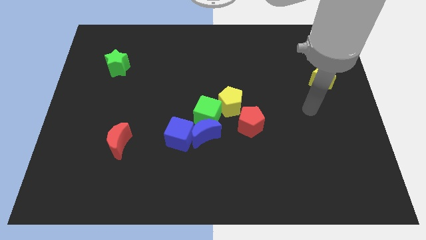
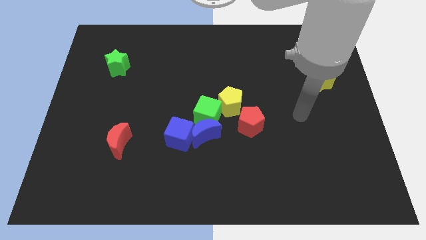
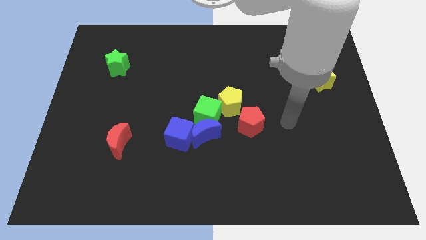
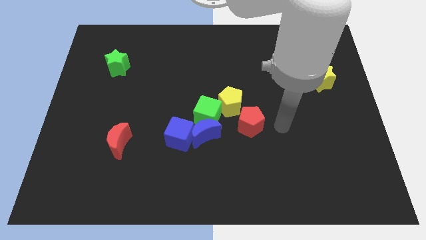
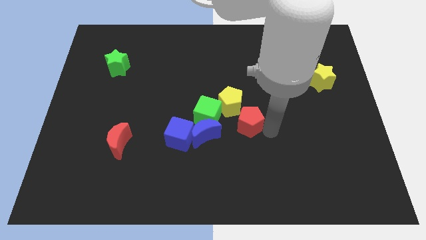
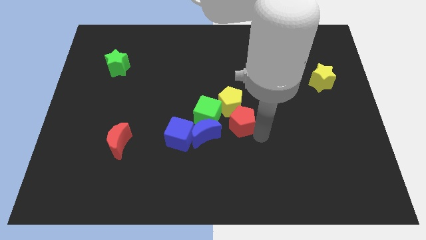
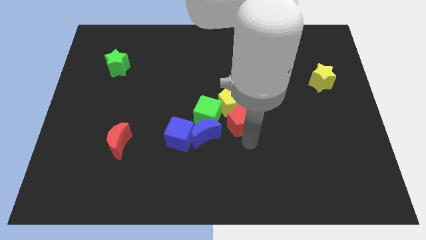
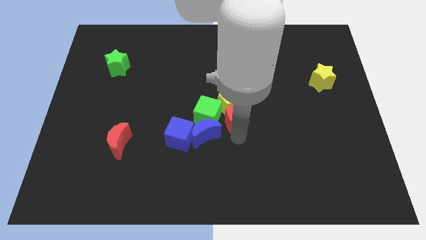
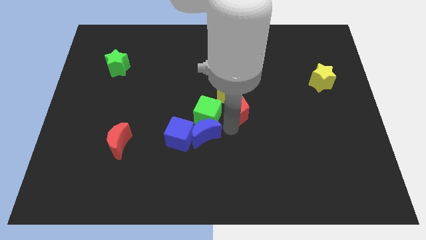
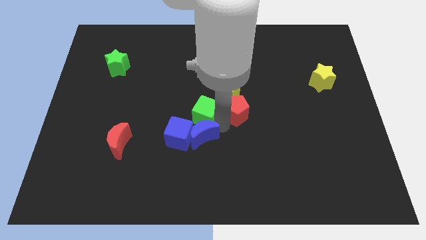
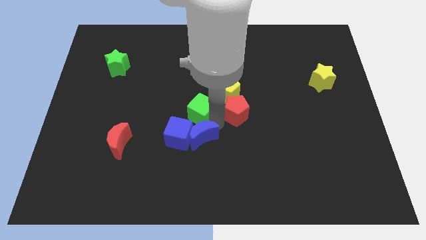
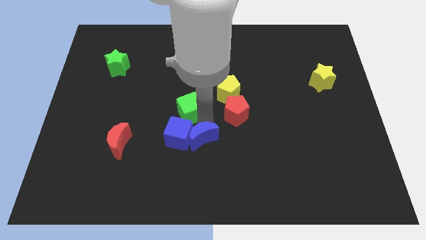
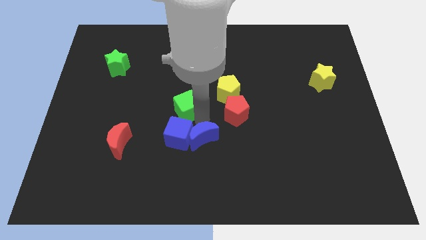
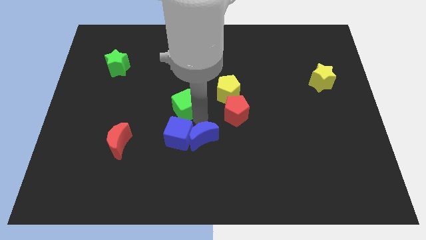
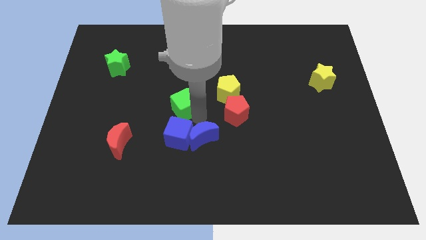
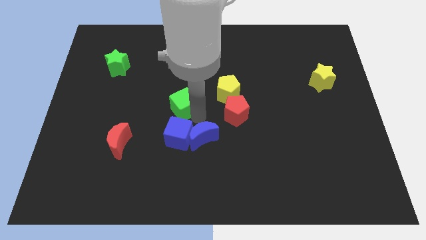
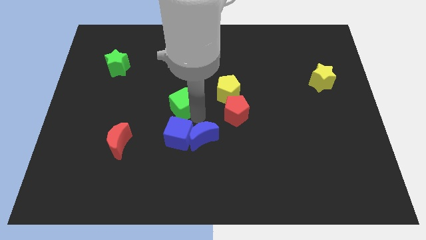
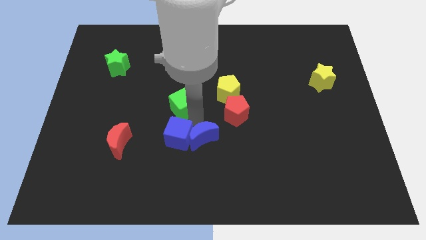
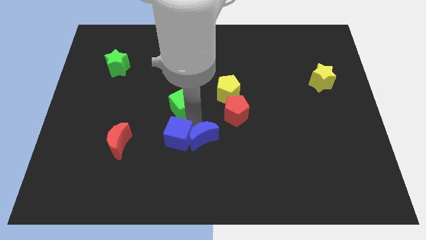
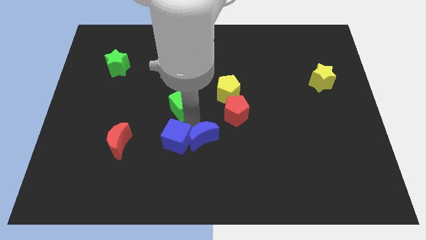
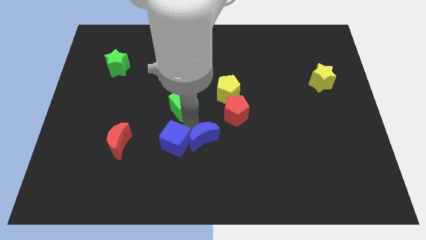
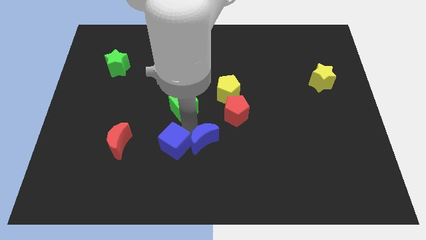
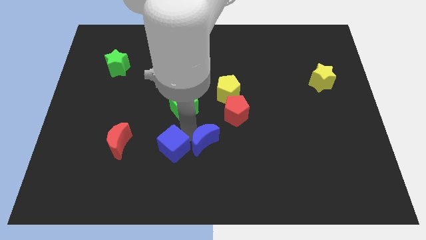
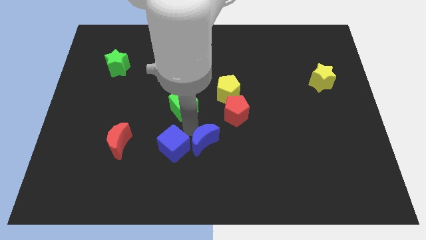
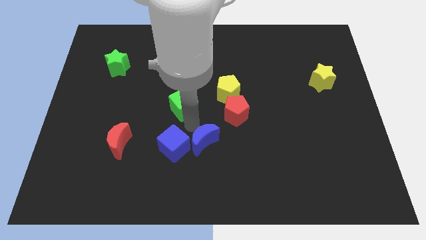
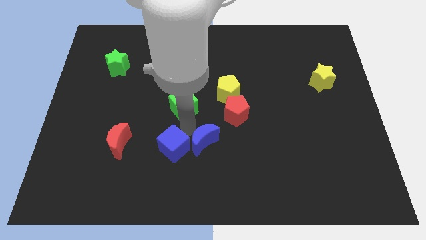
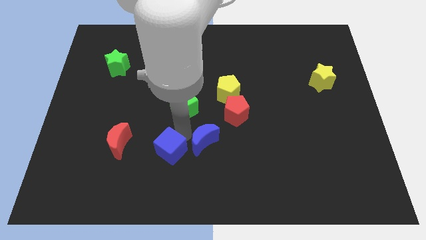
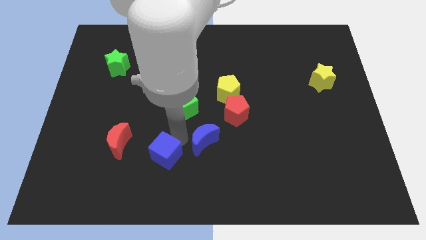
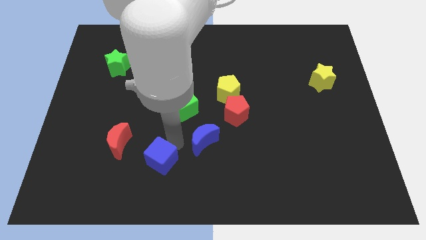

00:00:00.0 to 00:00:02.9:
separate the blue cube from the blue moon and green cube

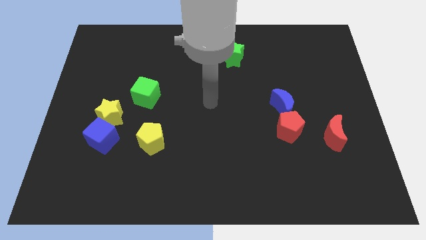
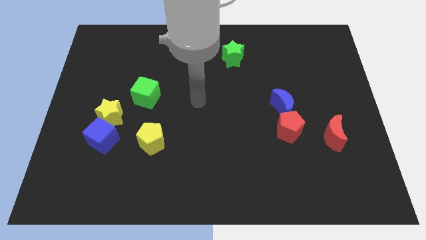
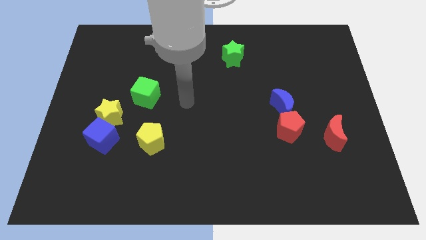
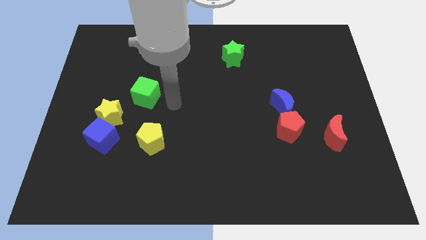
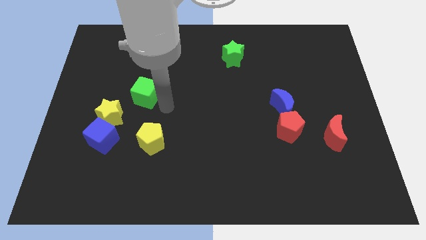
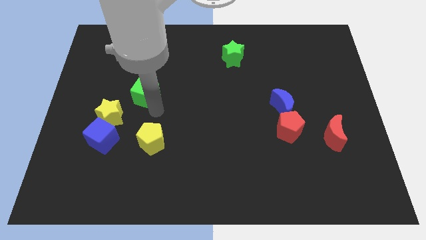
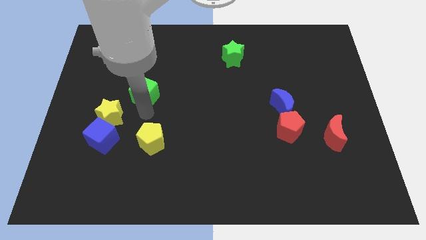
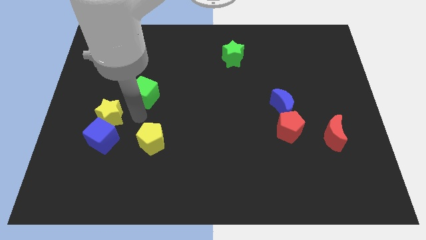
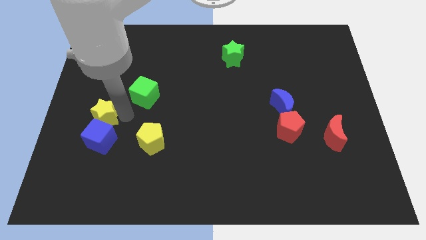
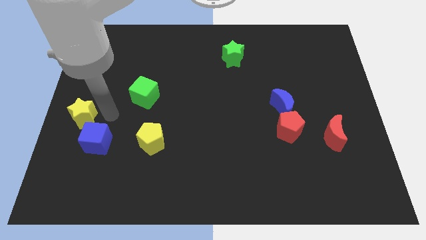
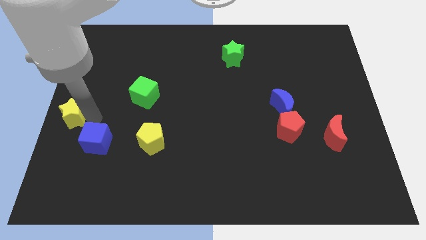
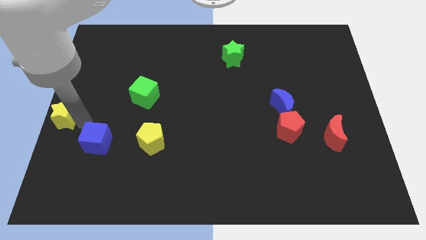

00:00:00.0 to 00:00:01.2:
pull the blue cube apart from the yellow star

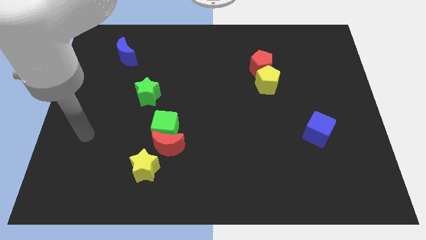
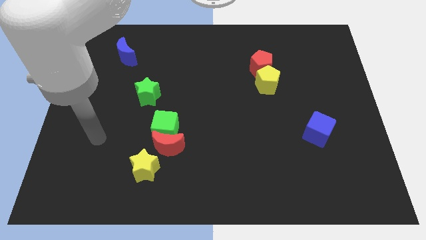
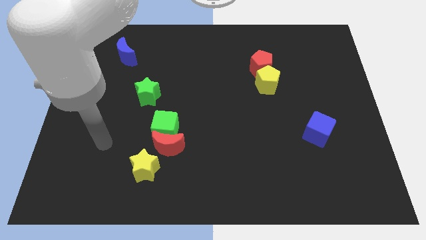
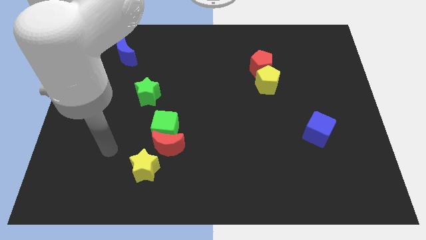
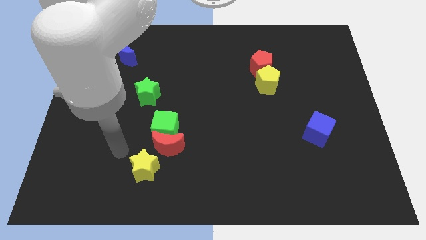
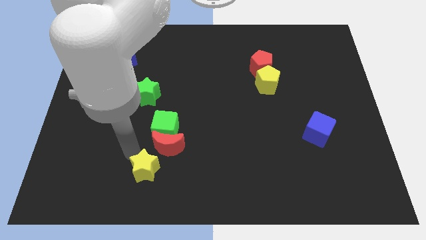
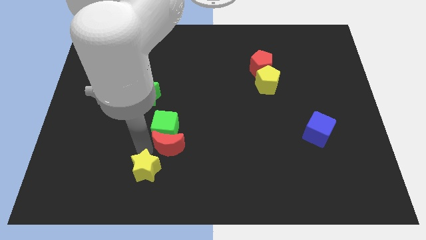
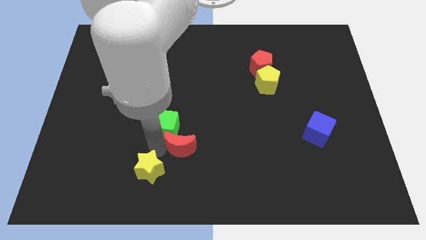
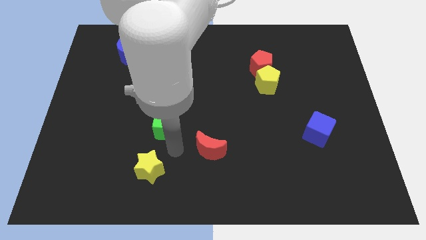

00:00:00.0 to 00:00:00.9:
move the green cube away from the red moon

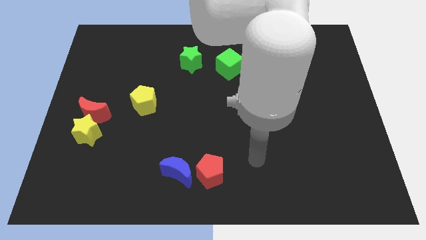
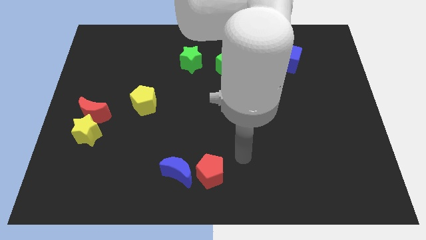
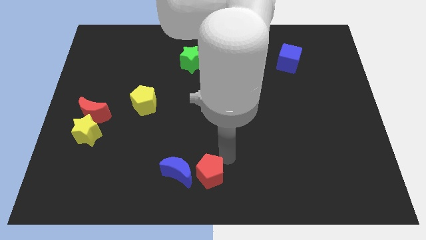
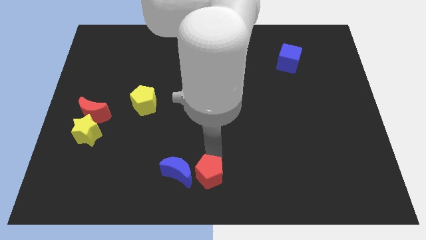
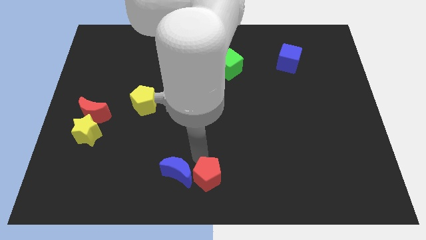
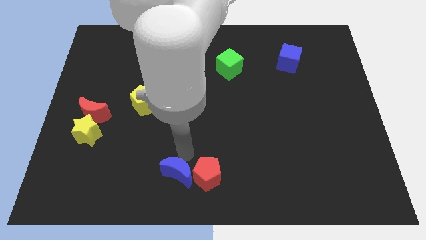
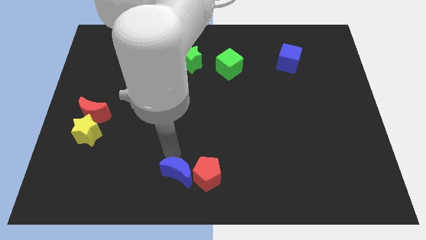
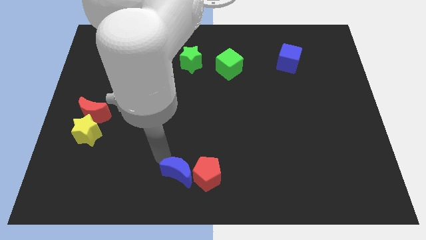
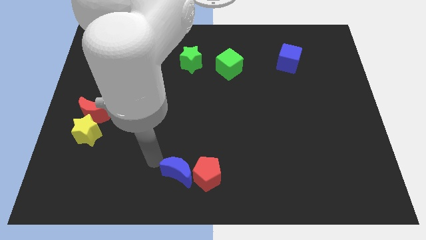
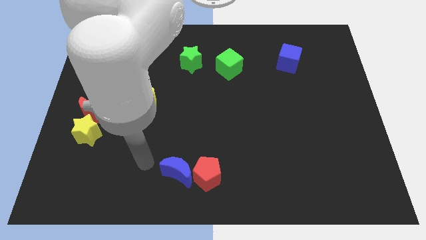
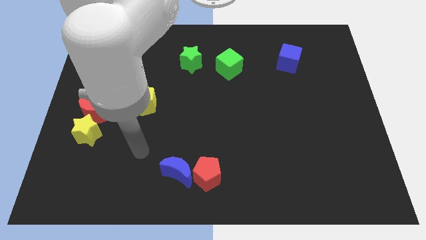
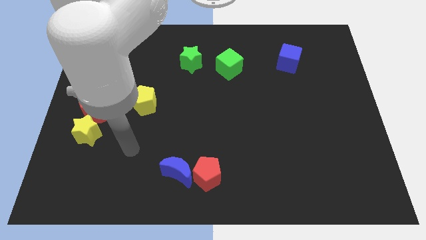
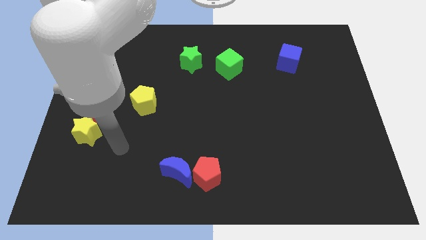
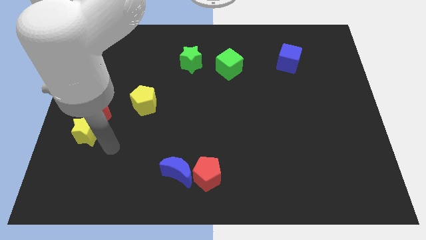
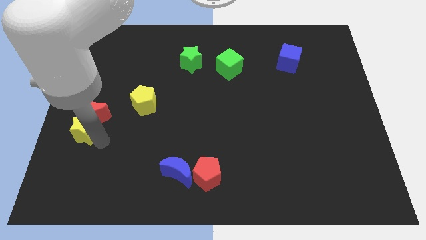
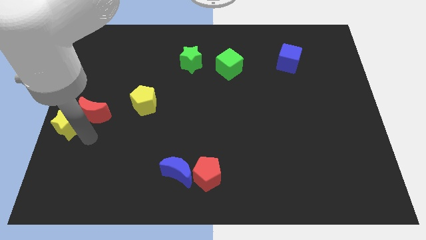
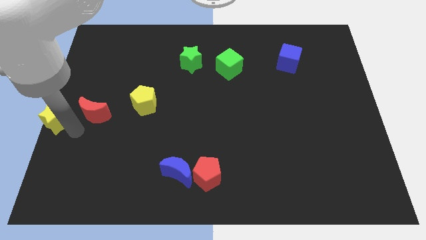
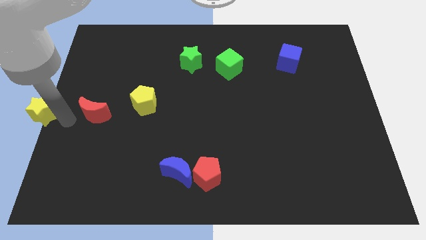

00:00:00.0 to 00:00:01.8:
pull the red moon apart from the yellow star

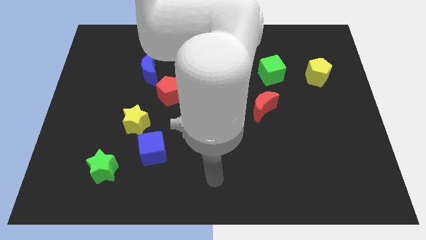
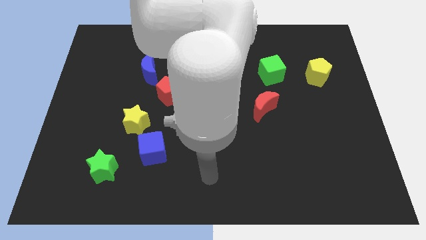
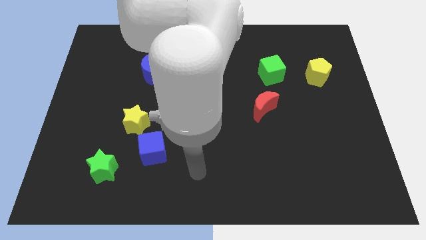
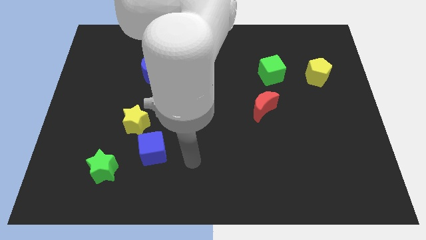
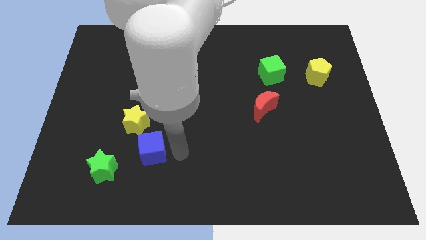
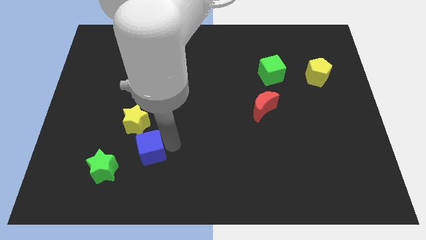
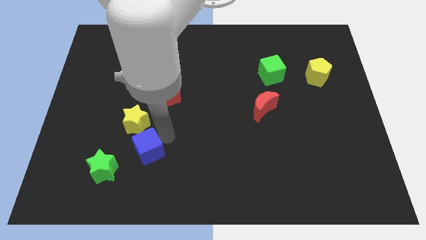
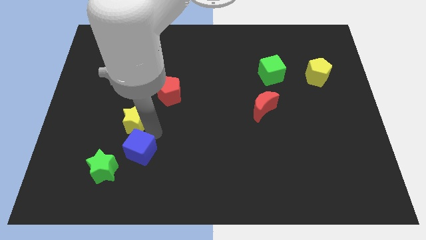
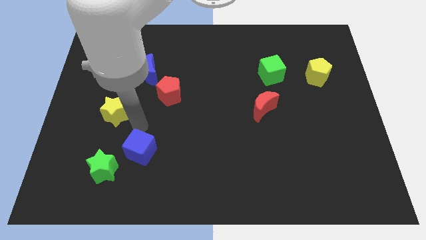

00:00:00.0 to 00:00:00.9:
move the blue cube away from the yellow star

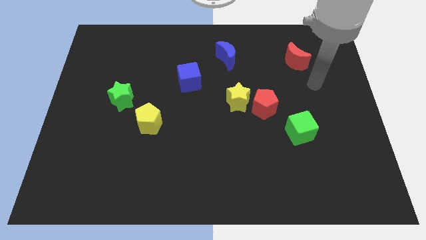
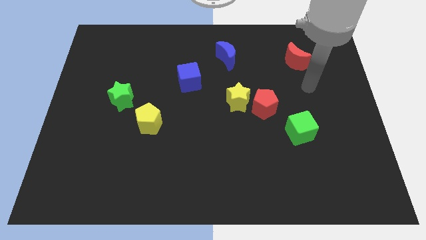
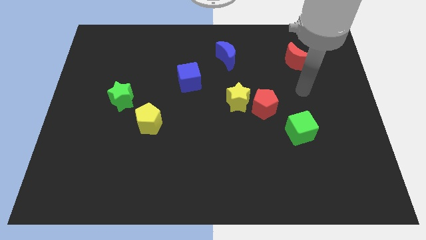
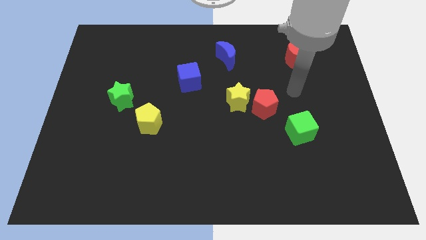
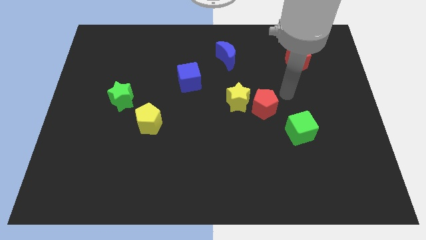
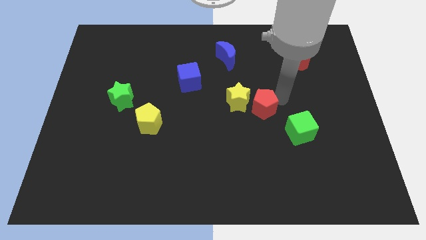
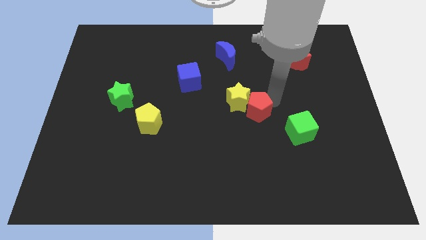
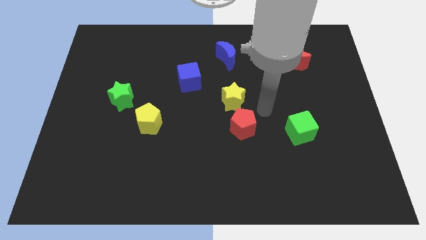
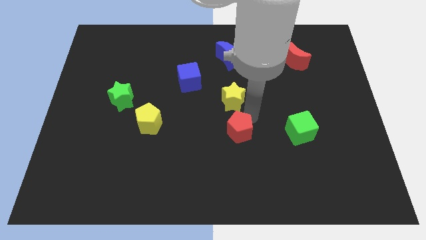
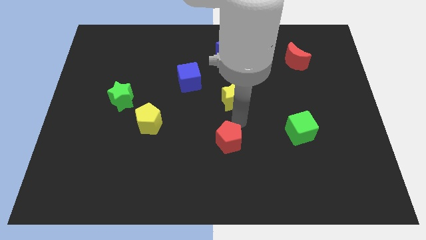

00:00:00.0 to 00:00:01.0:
pull the yellow star apart from the red pentagon

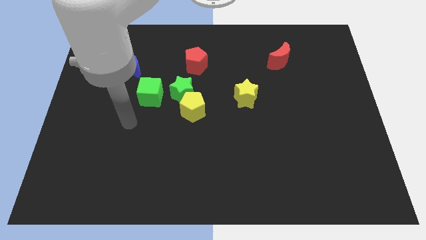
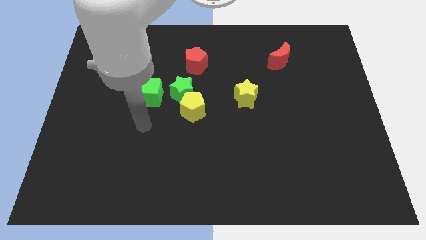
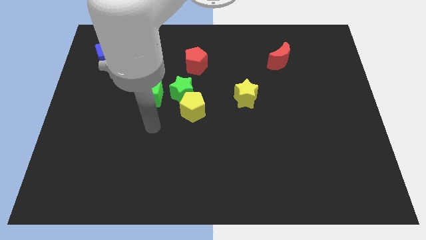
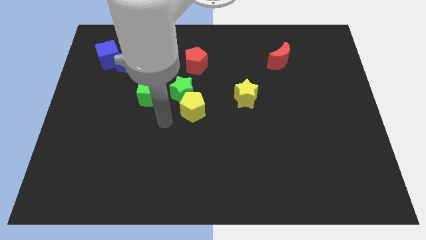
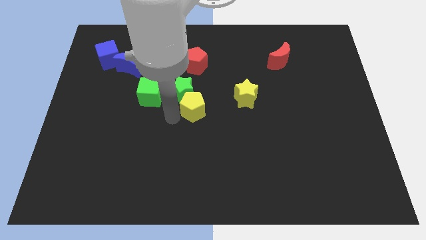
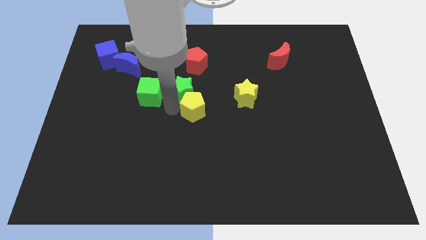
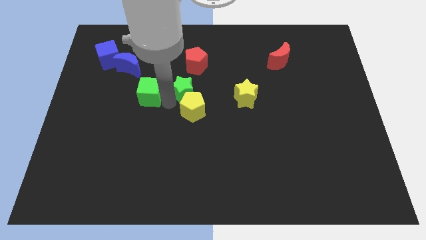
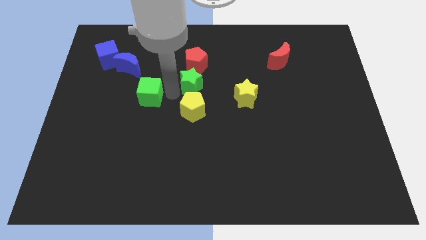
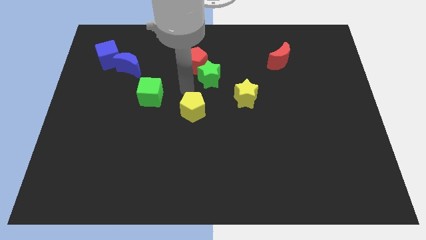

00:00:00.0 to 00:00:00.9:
move the yellow pentagon away from the green star
